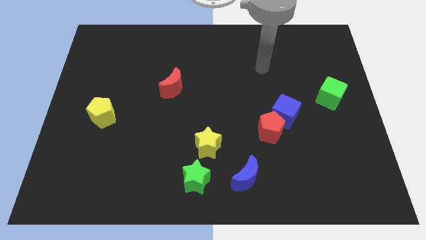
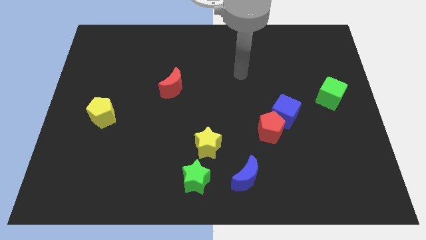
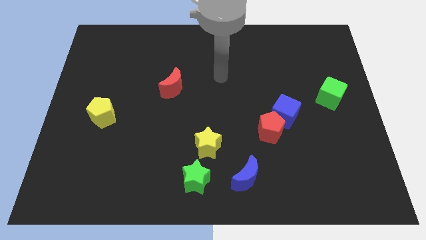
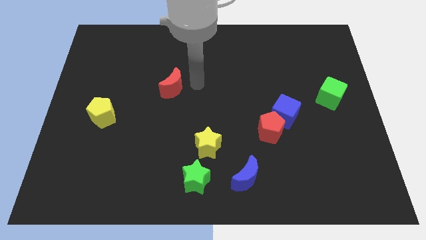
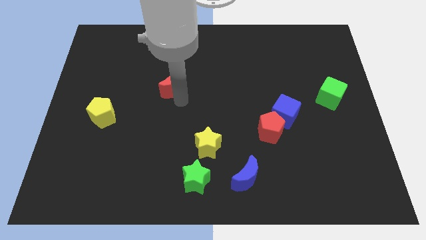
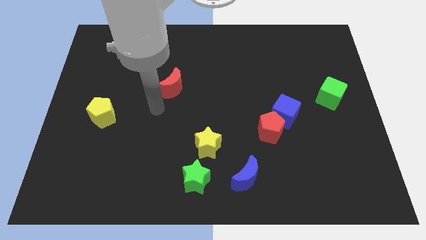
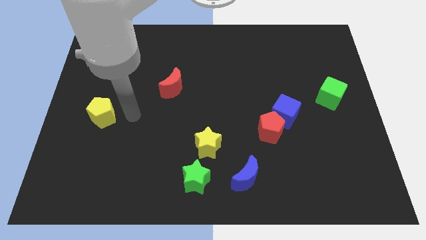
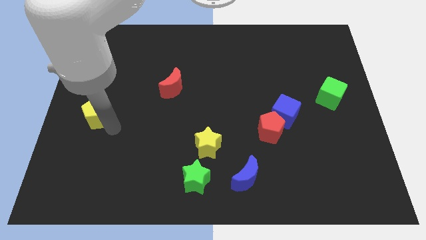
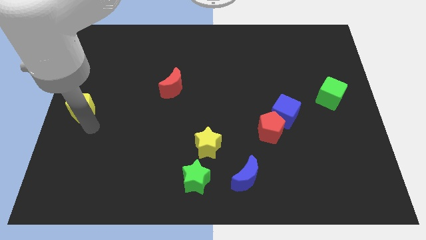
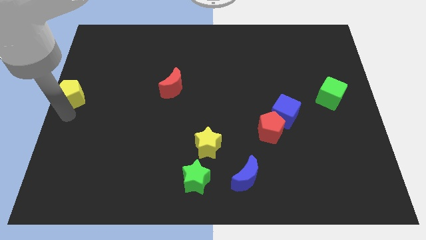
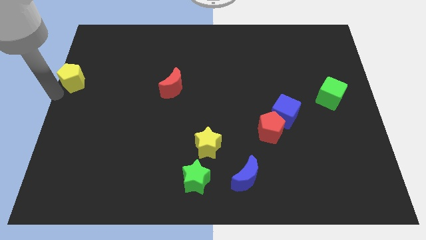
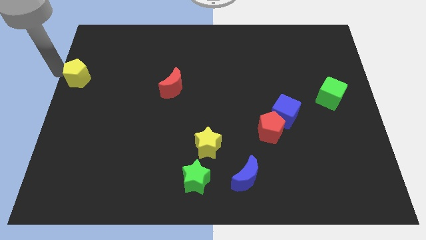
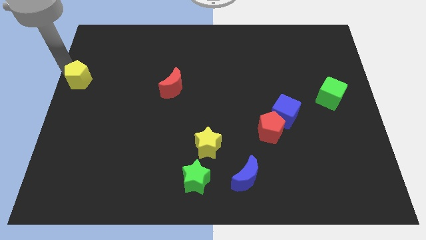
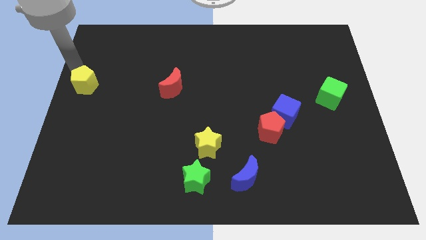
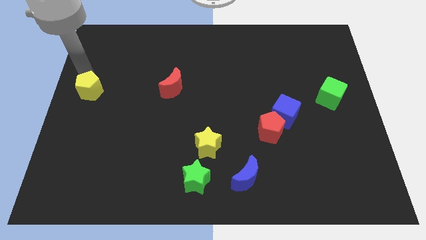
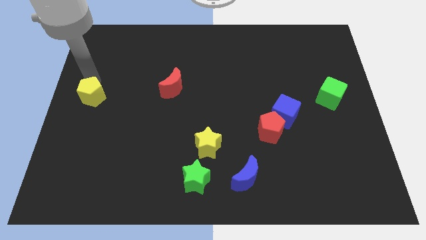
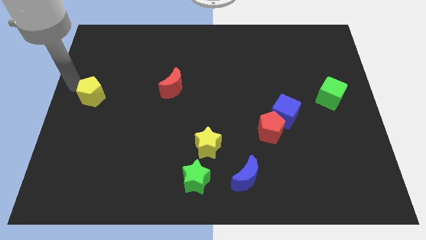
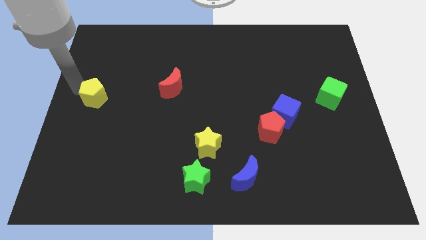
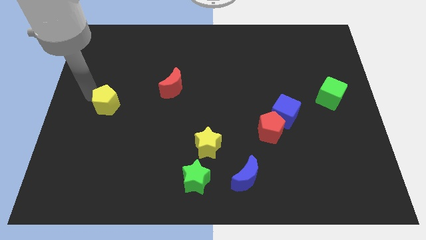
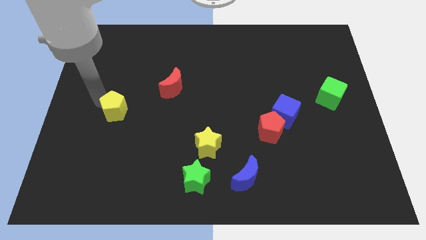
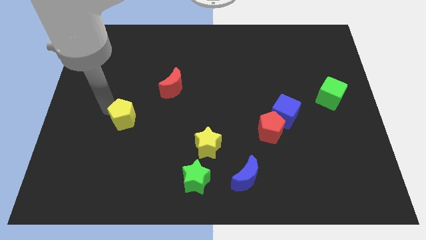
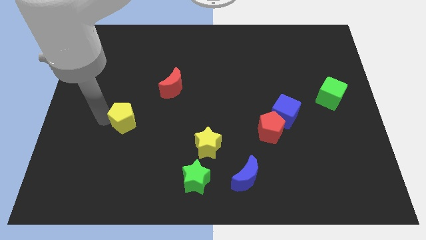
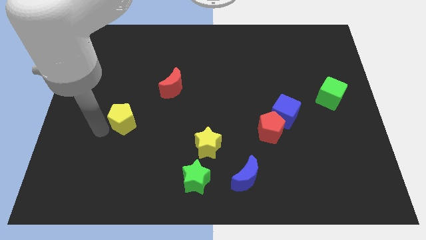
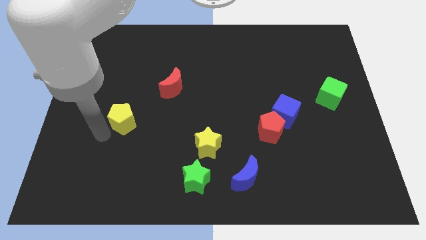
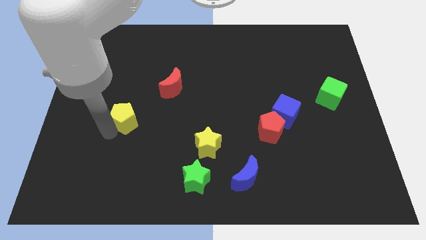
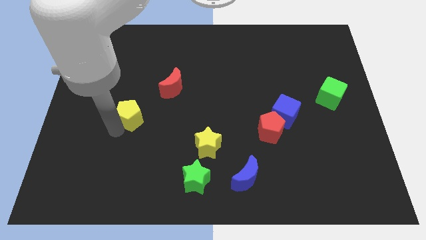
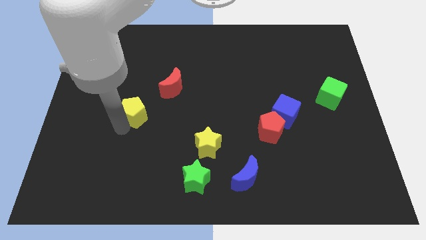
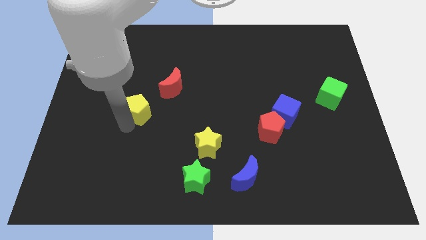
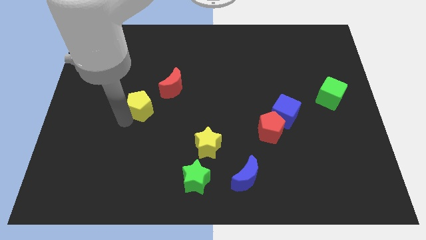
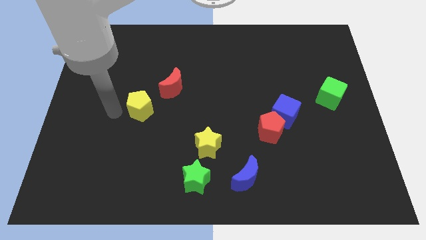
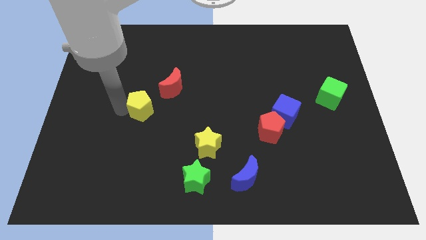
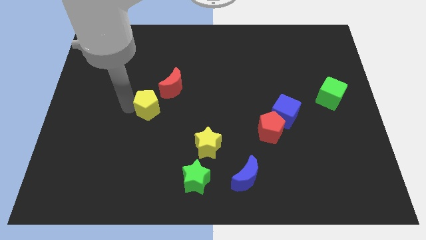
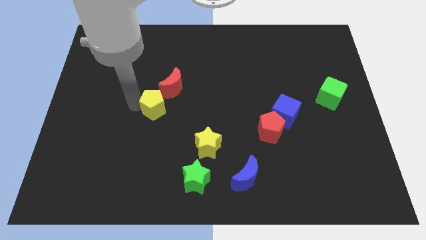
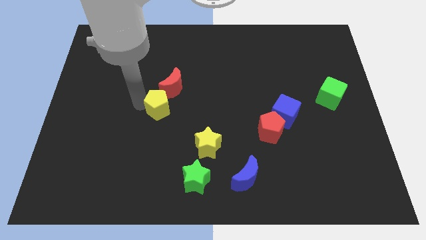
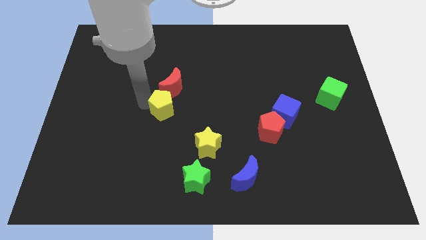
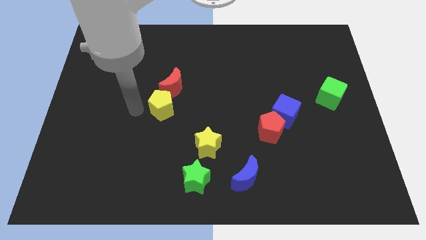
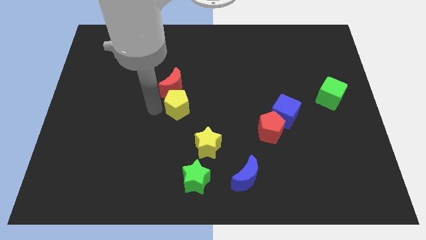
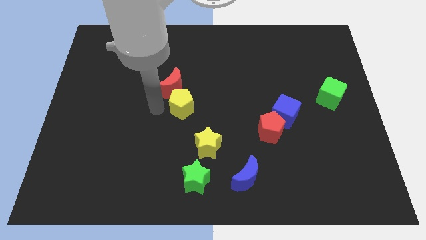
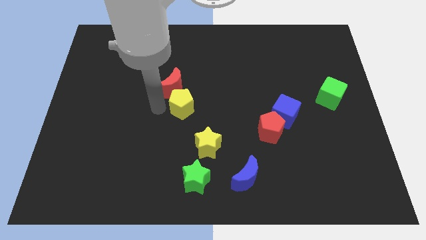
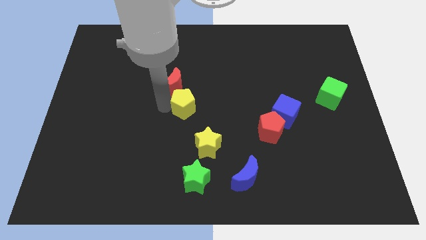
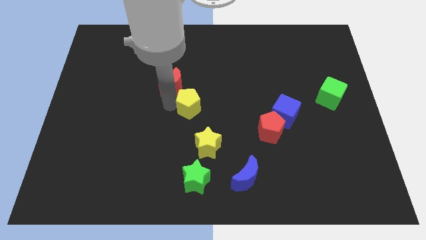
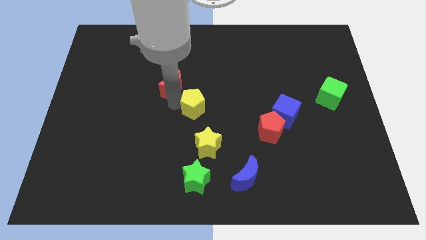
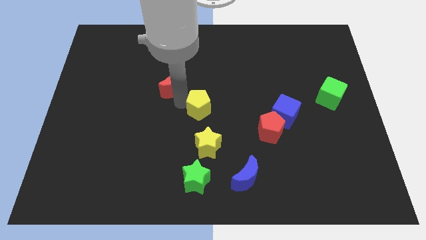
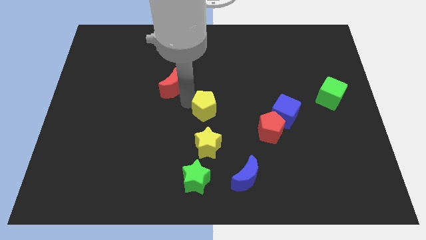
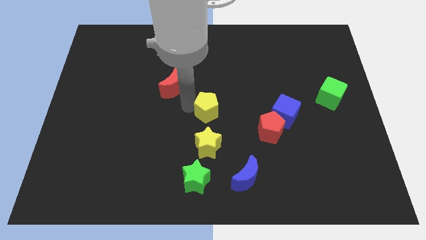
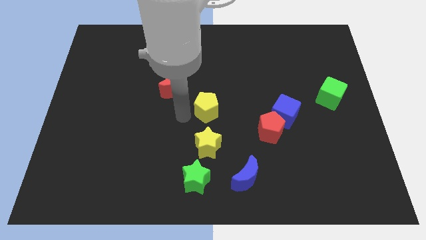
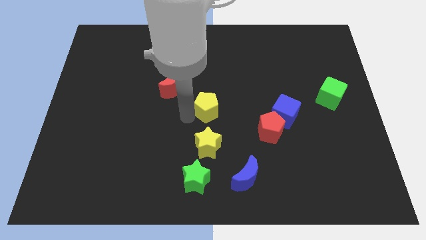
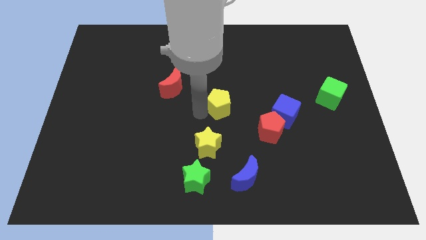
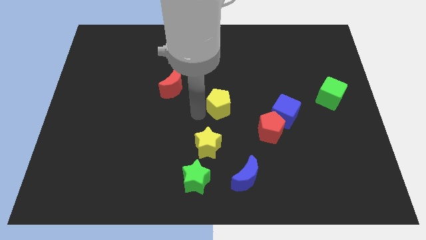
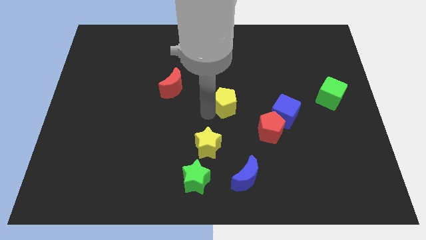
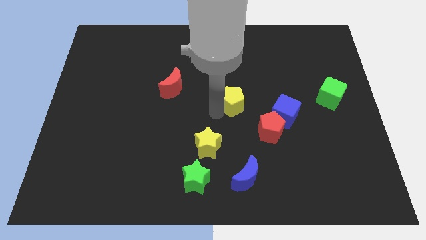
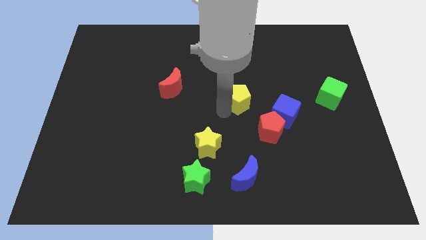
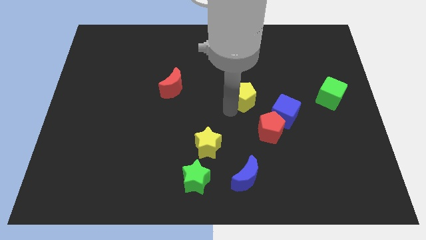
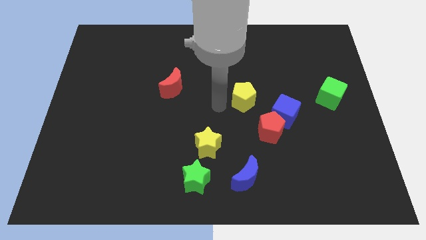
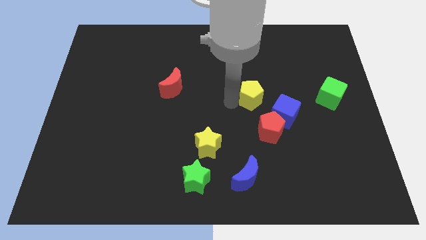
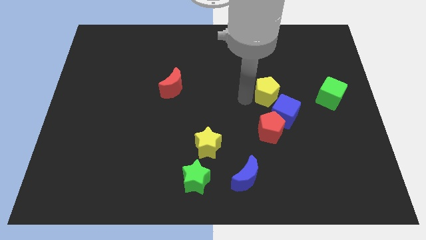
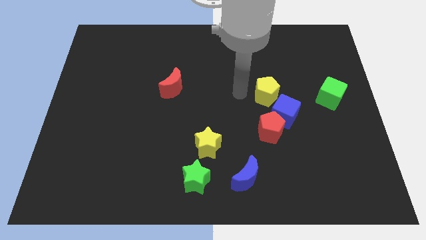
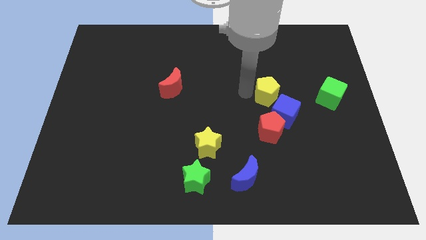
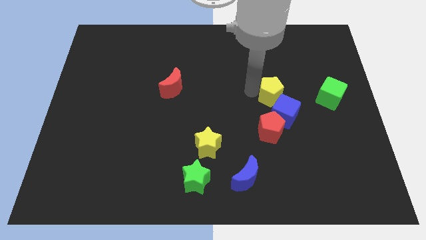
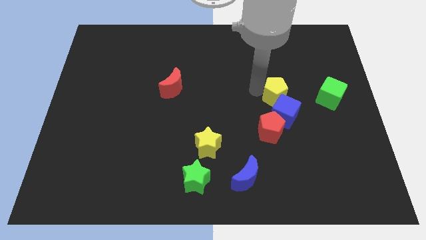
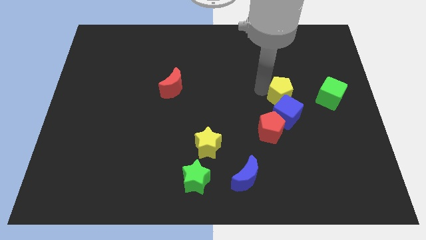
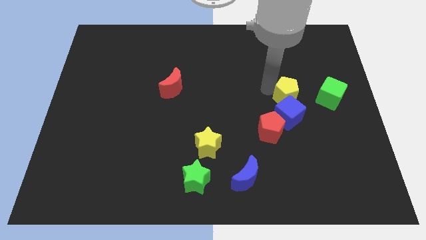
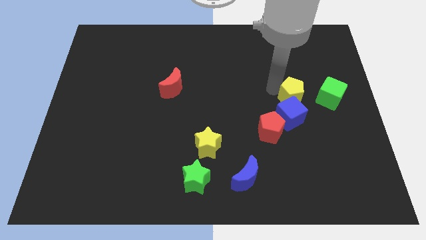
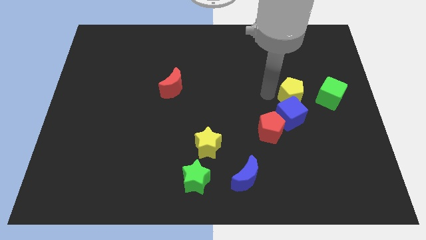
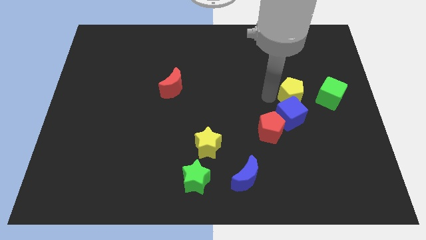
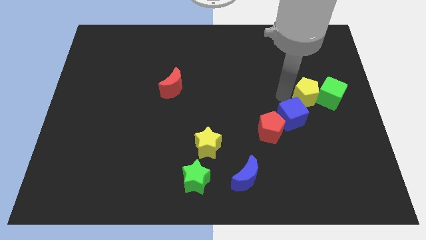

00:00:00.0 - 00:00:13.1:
move the yellow pentagon towards the green cube
